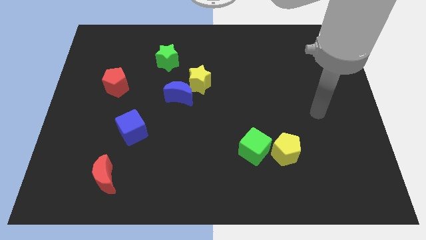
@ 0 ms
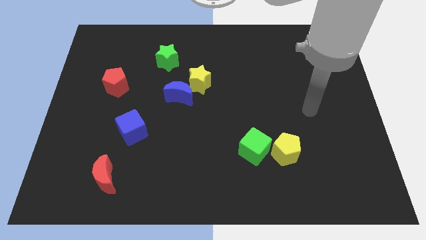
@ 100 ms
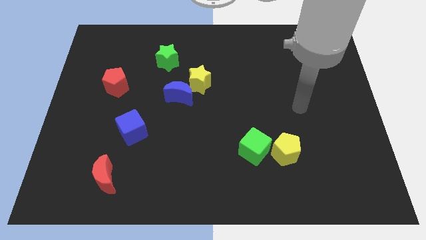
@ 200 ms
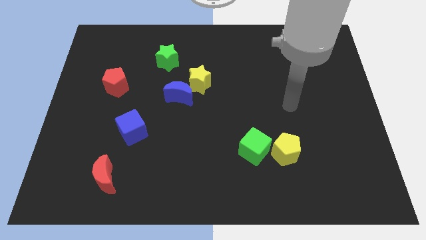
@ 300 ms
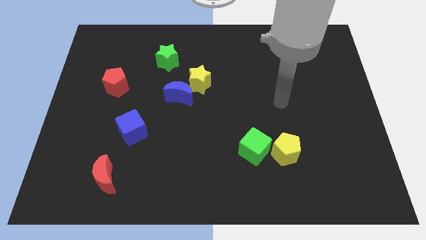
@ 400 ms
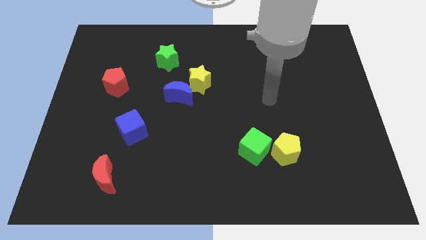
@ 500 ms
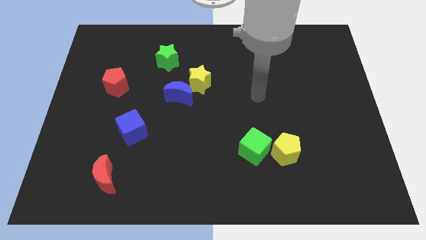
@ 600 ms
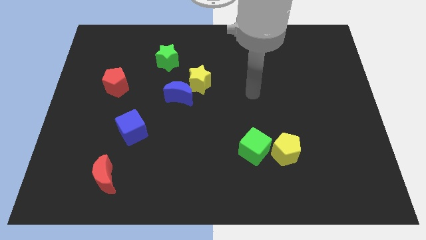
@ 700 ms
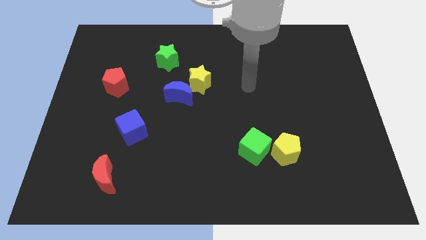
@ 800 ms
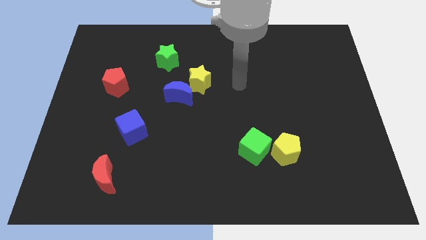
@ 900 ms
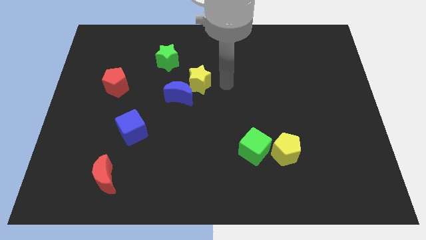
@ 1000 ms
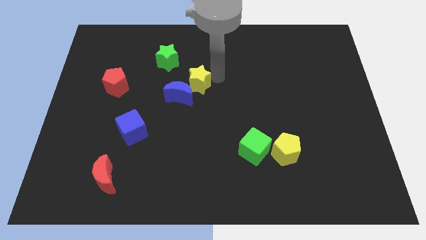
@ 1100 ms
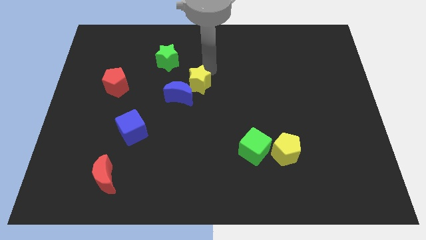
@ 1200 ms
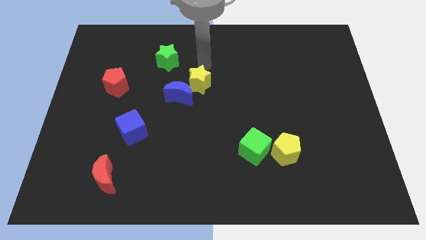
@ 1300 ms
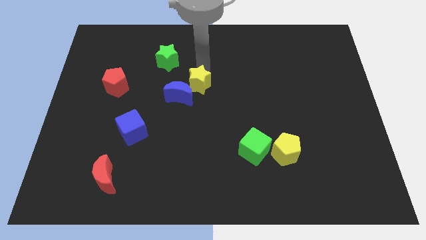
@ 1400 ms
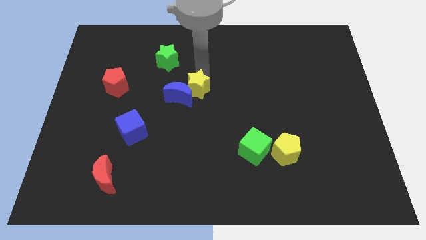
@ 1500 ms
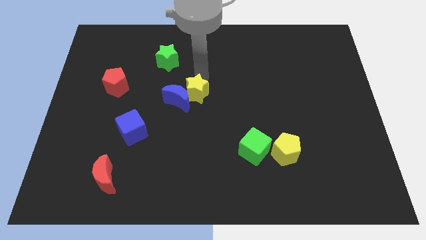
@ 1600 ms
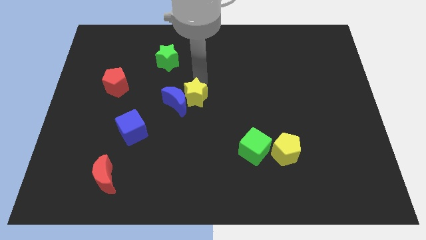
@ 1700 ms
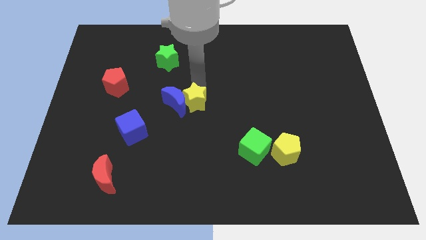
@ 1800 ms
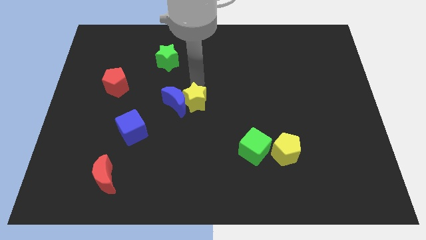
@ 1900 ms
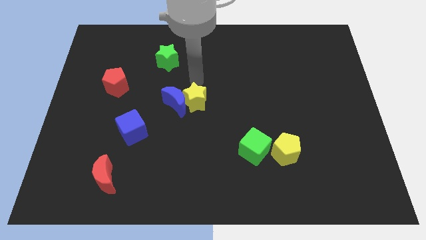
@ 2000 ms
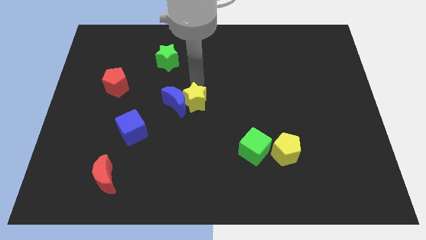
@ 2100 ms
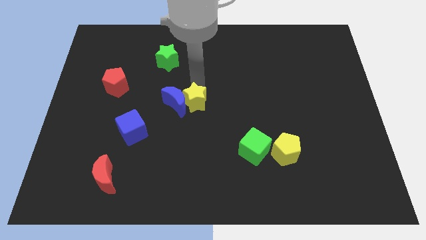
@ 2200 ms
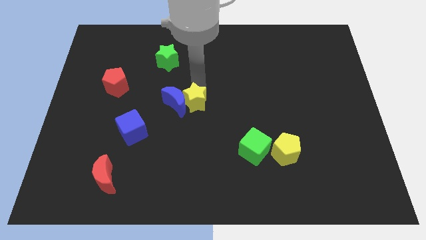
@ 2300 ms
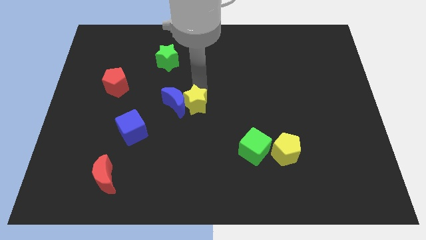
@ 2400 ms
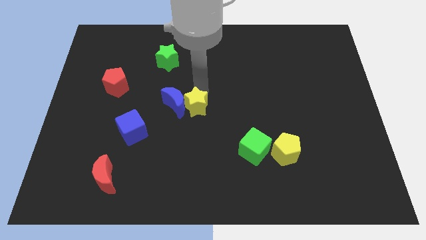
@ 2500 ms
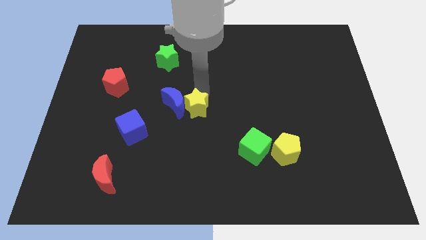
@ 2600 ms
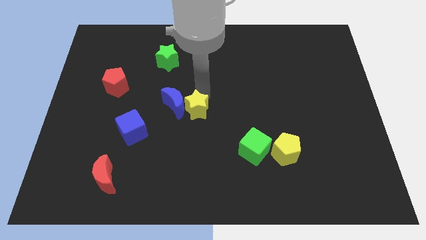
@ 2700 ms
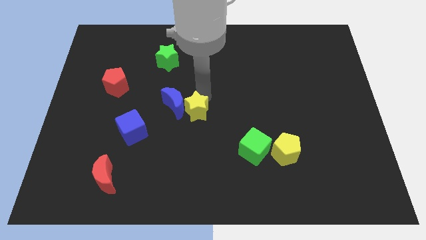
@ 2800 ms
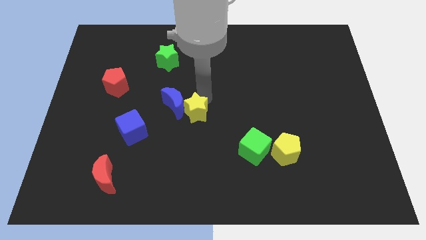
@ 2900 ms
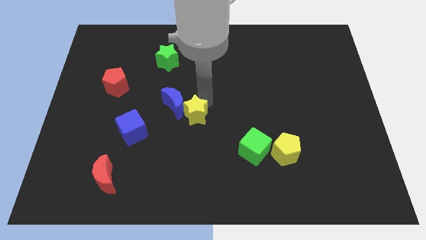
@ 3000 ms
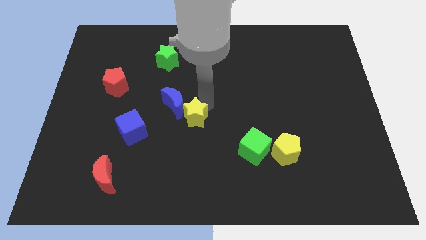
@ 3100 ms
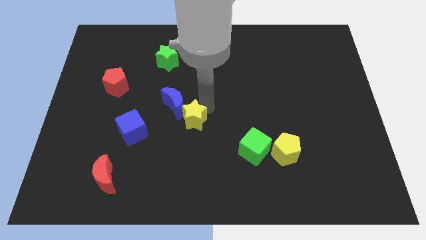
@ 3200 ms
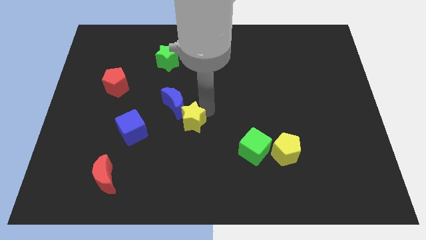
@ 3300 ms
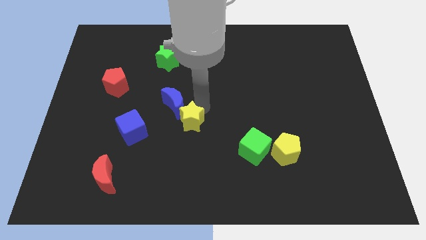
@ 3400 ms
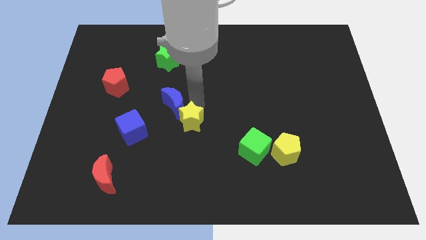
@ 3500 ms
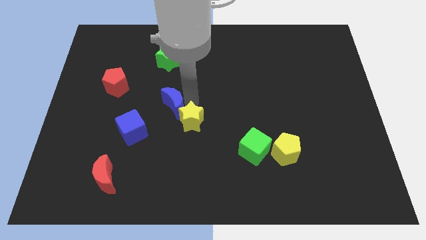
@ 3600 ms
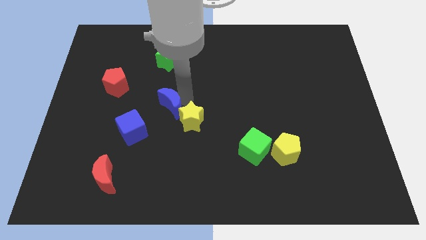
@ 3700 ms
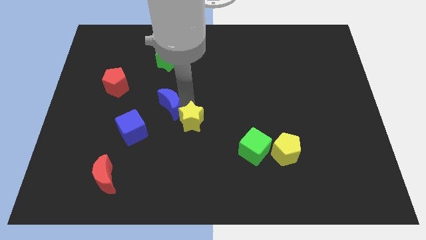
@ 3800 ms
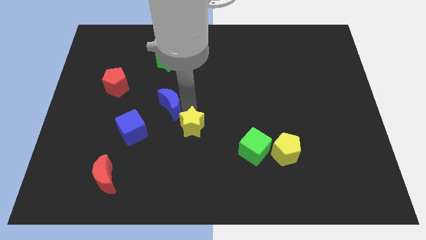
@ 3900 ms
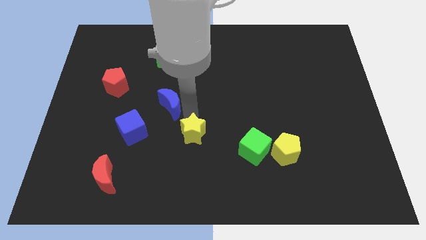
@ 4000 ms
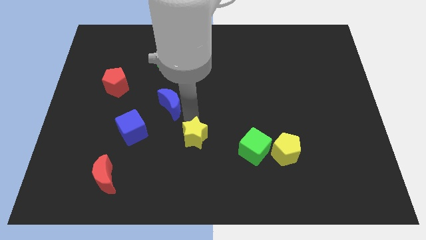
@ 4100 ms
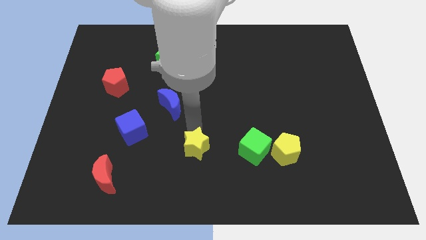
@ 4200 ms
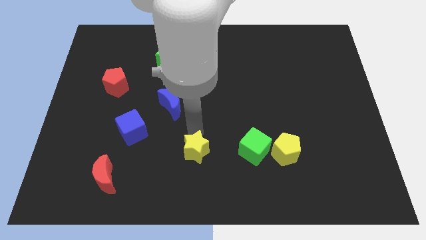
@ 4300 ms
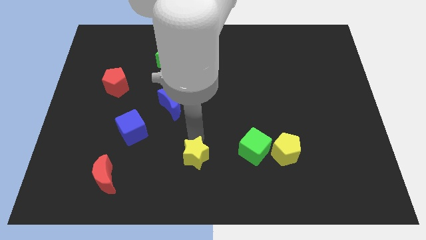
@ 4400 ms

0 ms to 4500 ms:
put the yellow star to the bottom

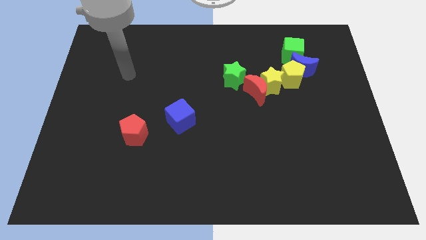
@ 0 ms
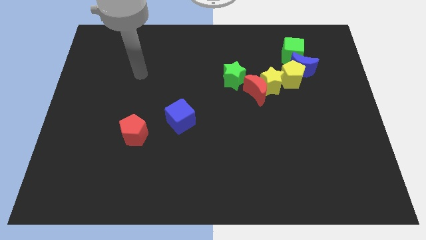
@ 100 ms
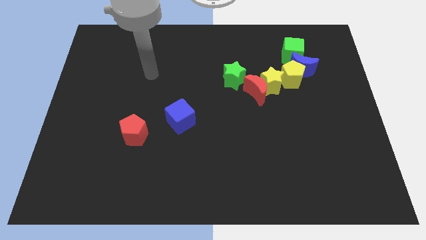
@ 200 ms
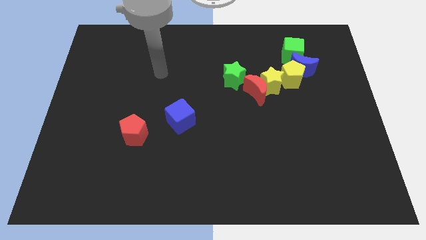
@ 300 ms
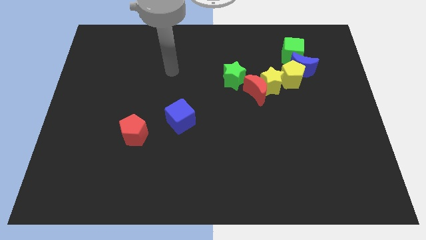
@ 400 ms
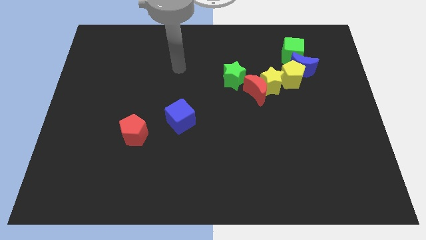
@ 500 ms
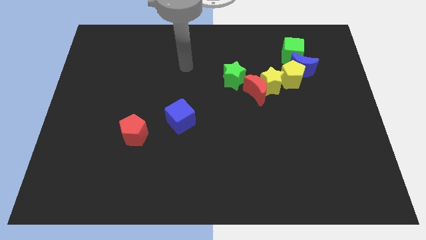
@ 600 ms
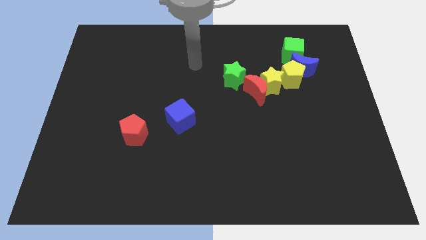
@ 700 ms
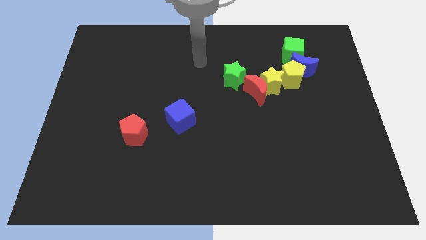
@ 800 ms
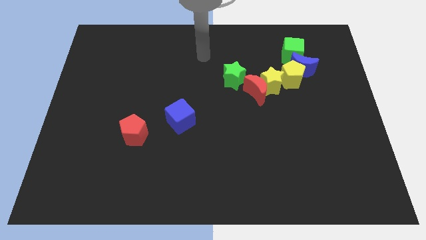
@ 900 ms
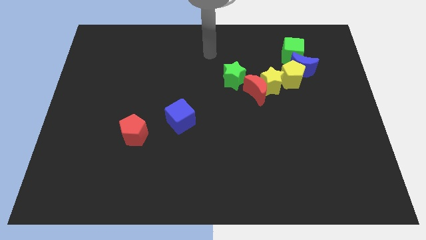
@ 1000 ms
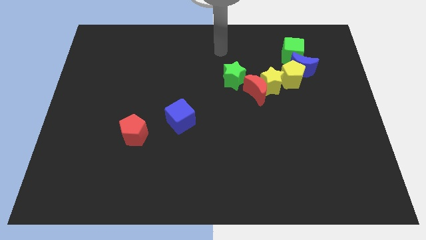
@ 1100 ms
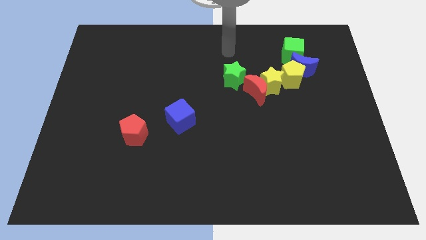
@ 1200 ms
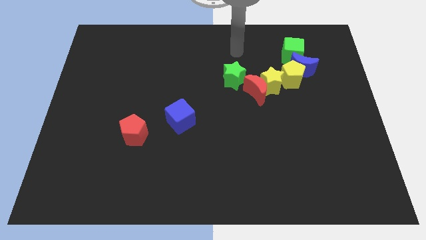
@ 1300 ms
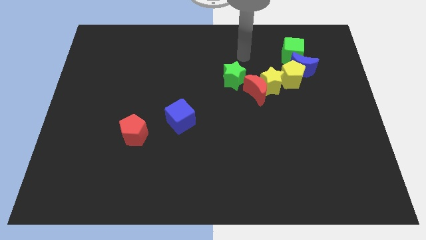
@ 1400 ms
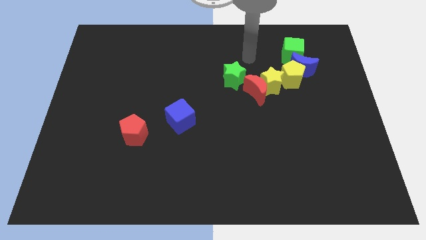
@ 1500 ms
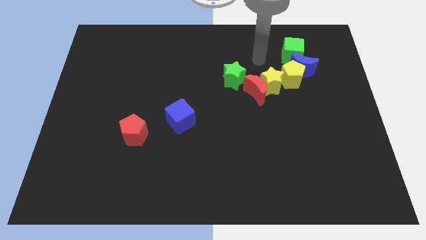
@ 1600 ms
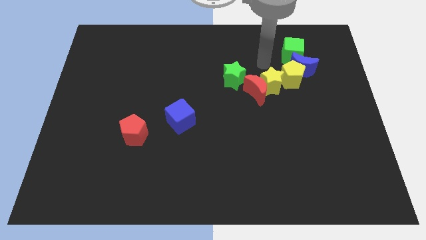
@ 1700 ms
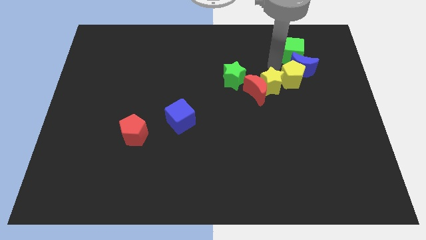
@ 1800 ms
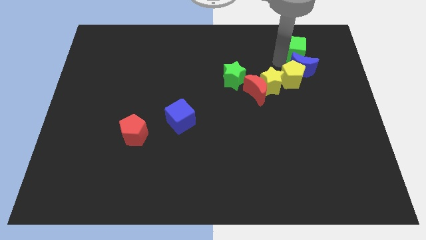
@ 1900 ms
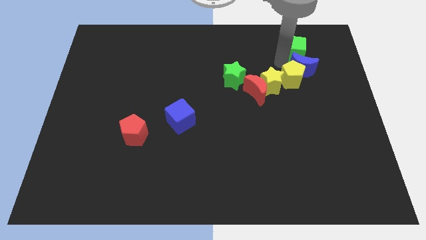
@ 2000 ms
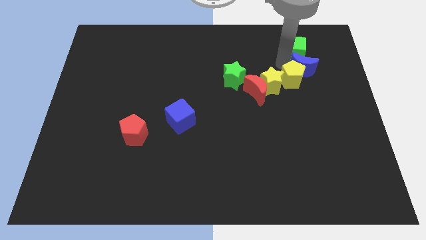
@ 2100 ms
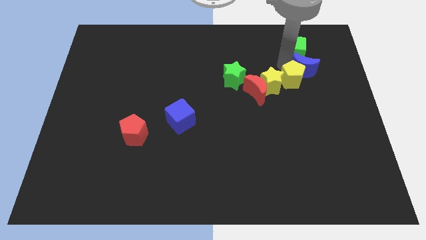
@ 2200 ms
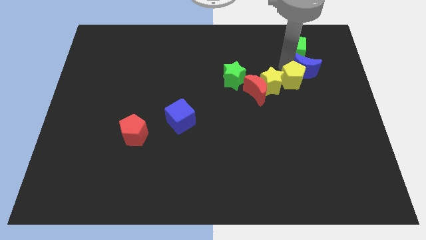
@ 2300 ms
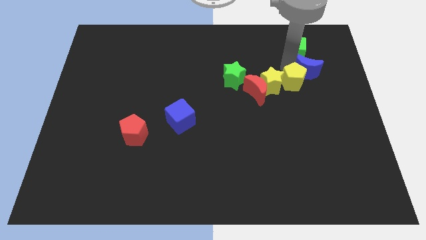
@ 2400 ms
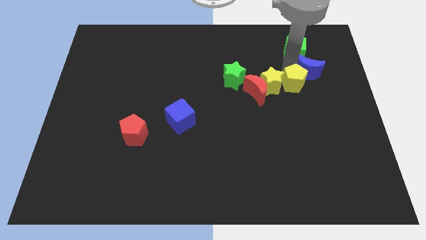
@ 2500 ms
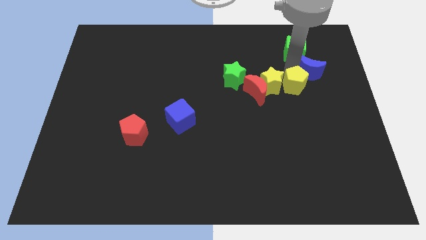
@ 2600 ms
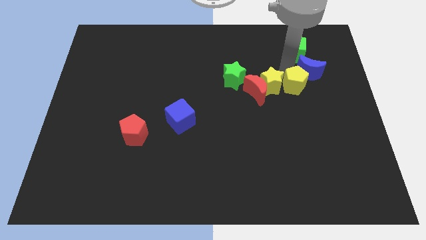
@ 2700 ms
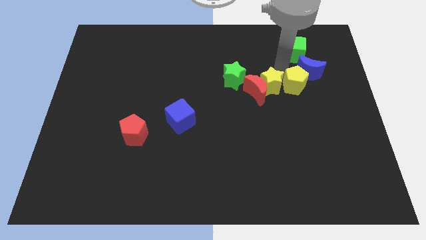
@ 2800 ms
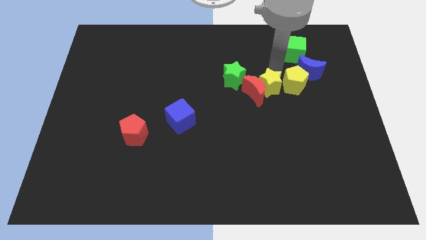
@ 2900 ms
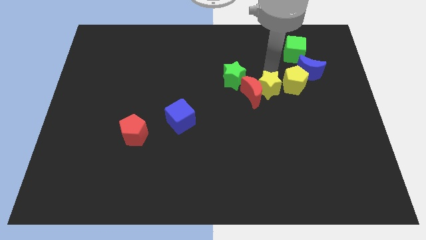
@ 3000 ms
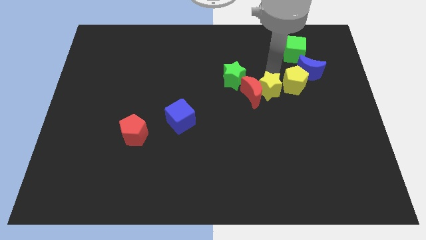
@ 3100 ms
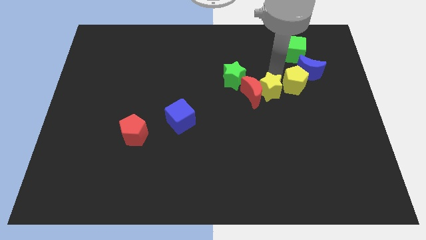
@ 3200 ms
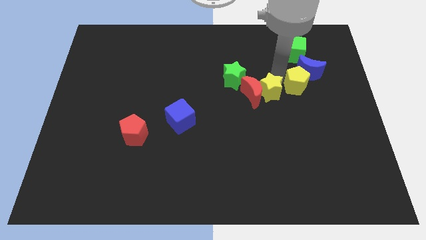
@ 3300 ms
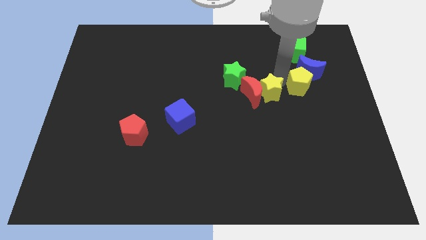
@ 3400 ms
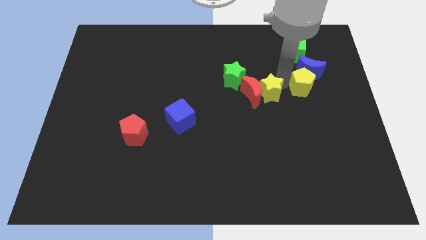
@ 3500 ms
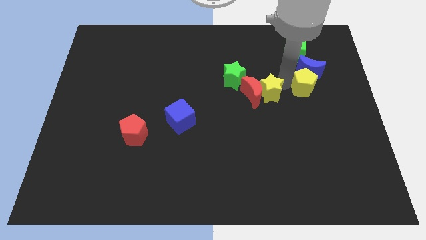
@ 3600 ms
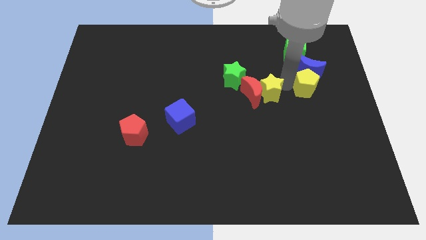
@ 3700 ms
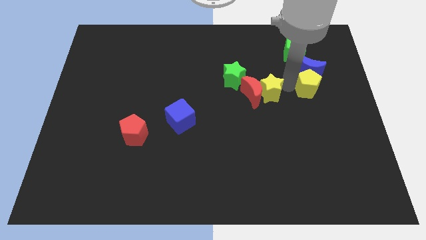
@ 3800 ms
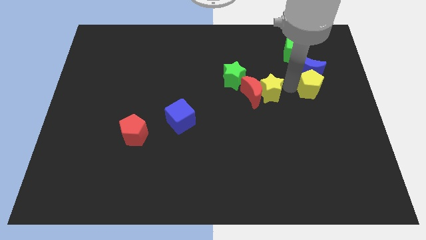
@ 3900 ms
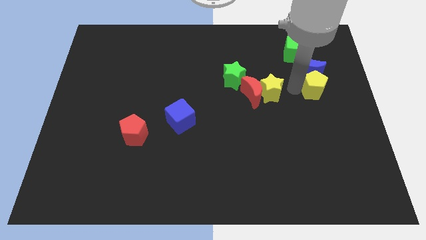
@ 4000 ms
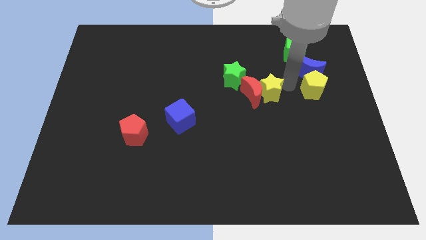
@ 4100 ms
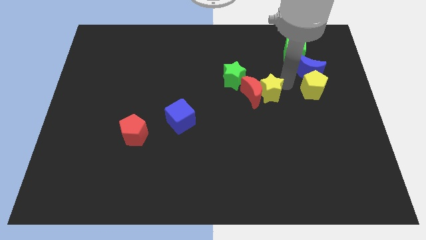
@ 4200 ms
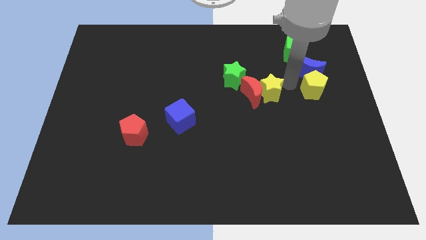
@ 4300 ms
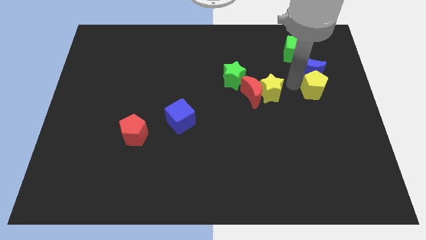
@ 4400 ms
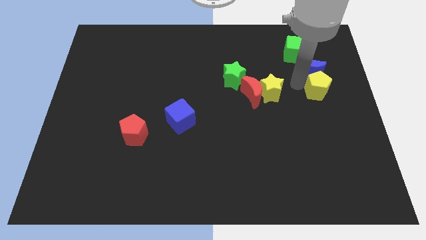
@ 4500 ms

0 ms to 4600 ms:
move the yellow pentagon to the right side of the board
